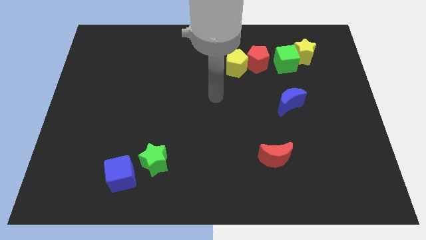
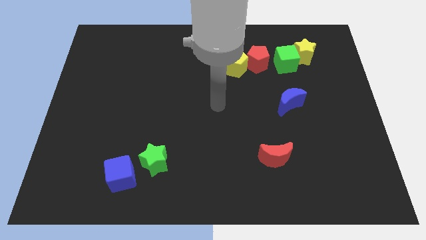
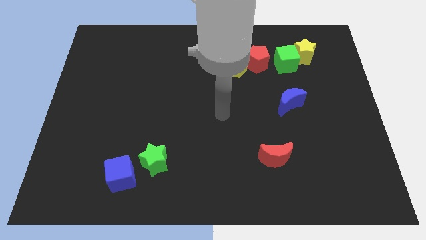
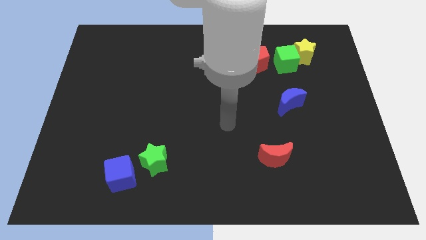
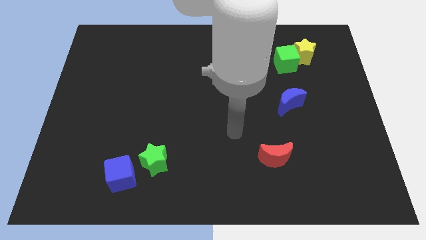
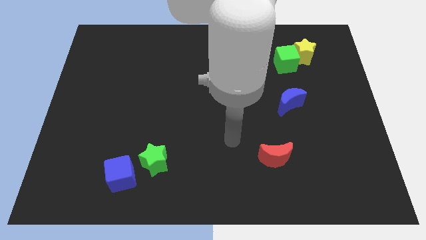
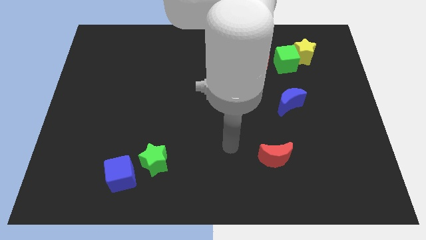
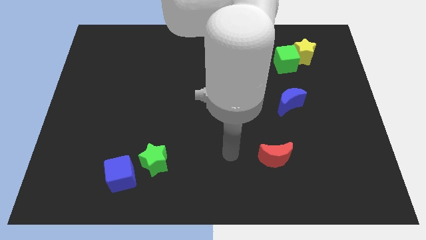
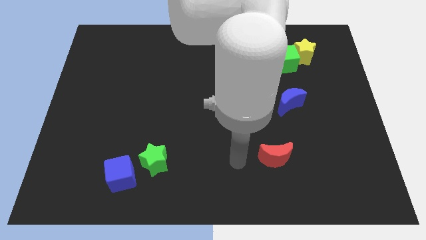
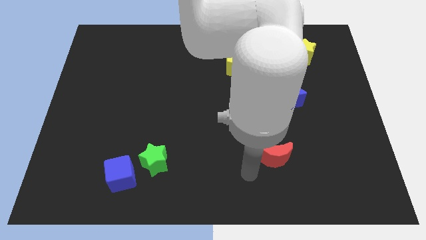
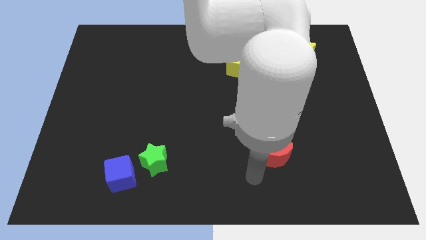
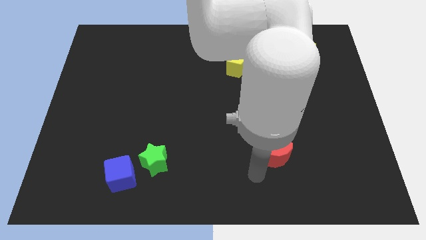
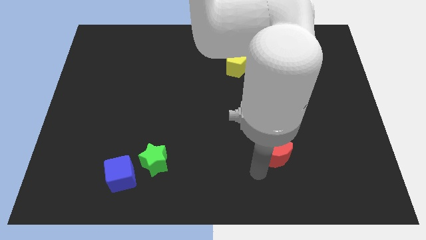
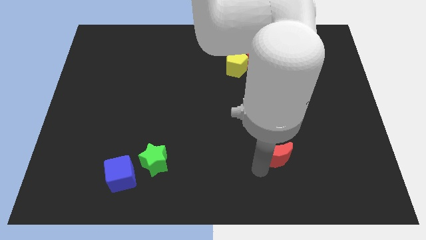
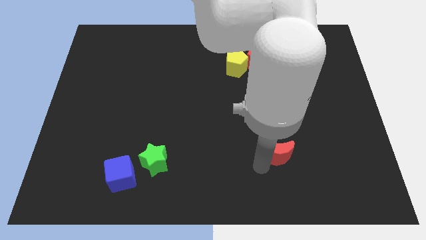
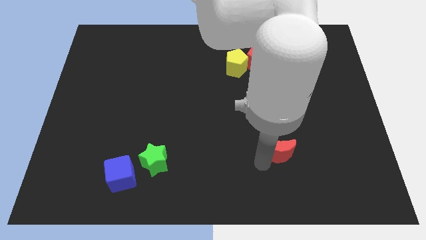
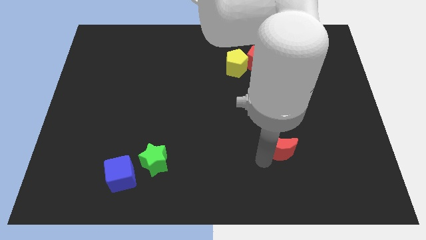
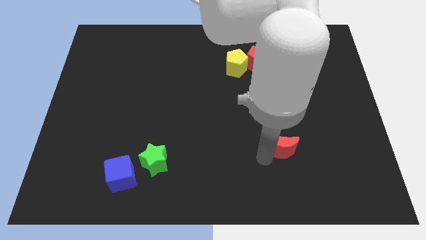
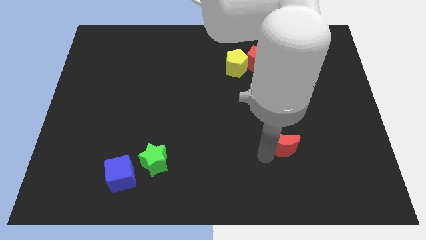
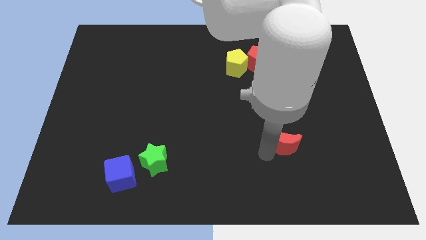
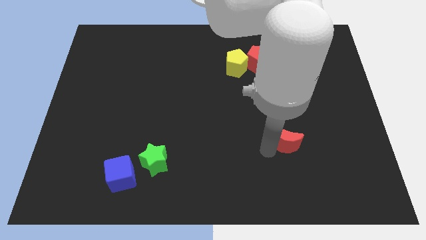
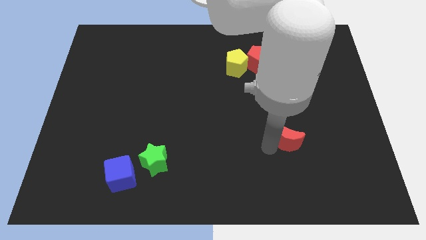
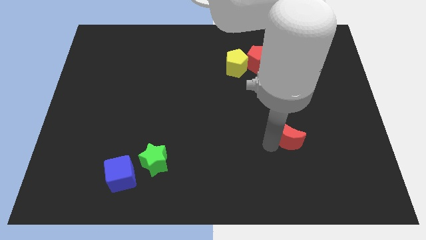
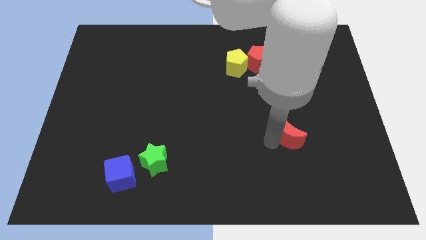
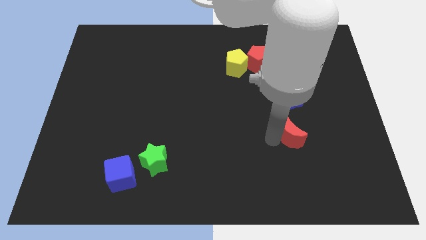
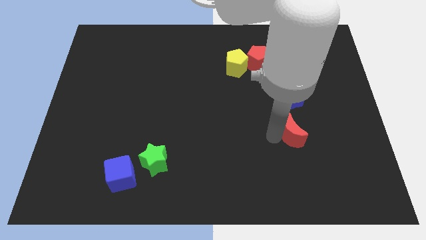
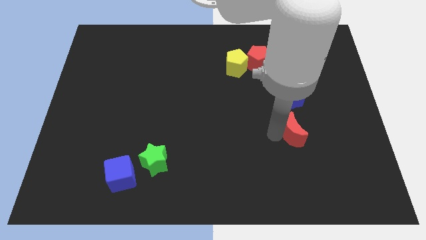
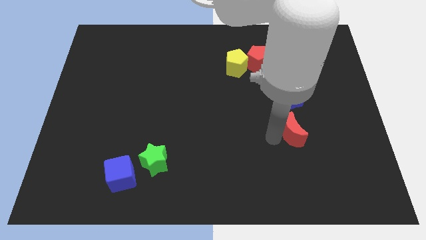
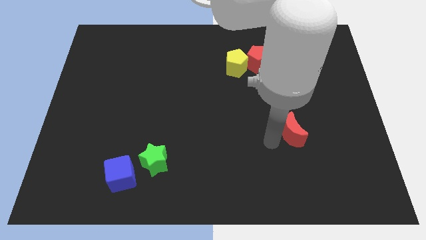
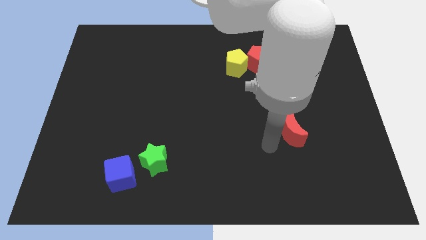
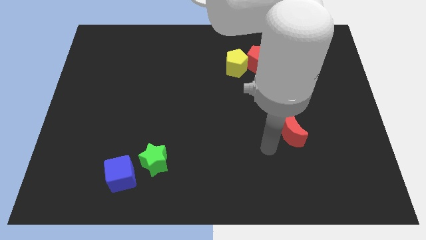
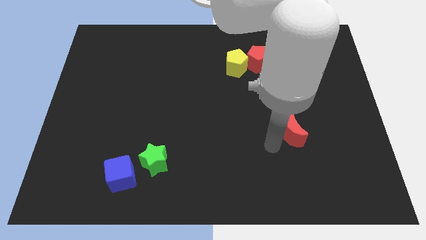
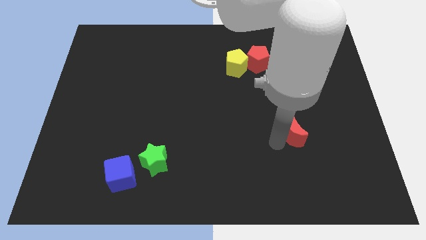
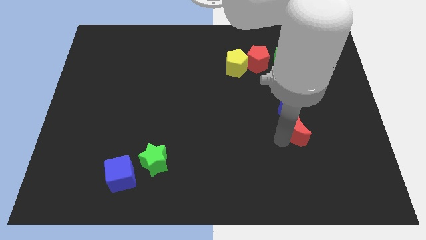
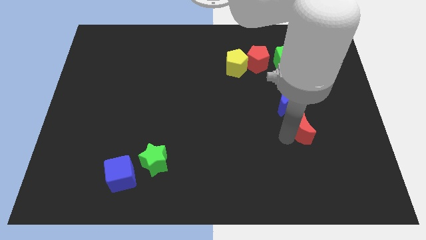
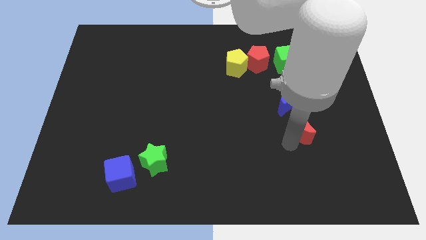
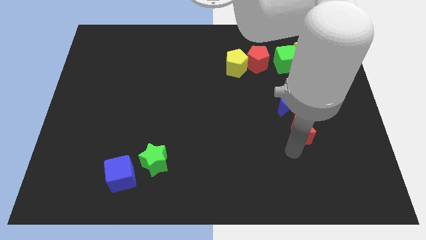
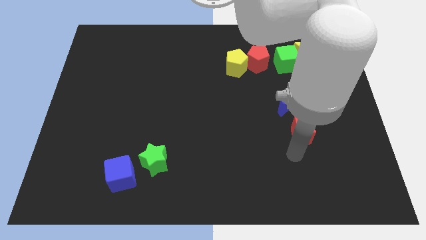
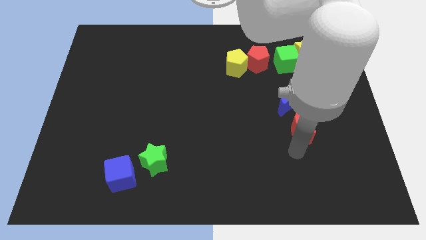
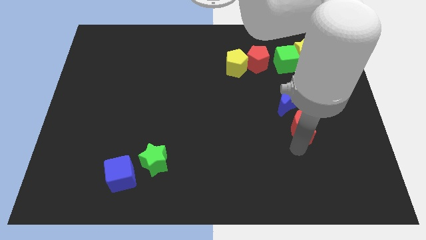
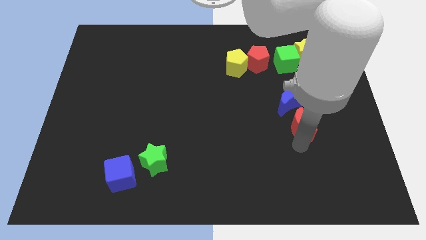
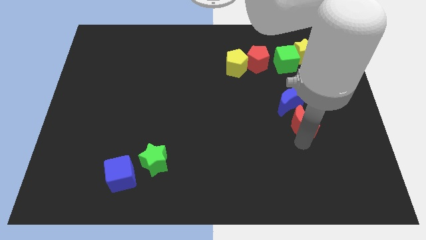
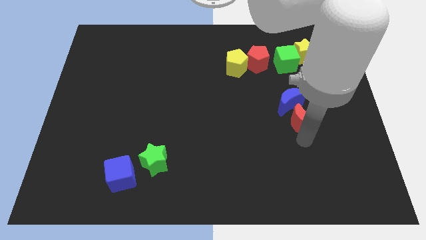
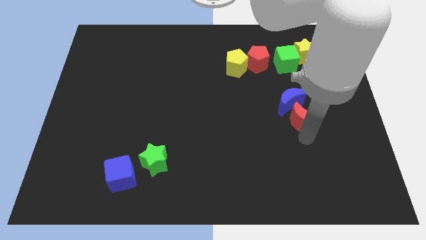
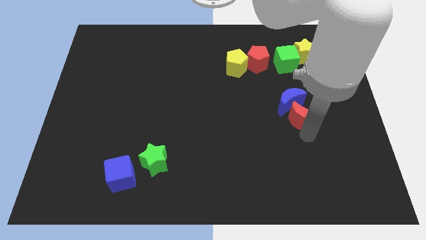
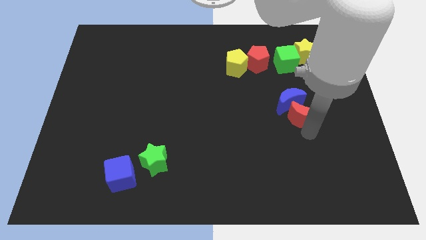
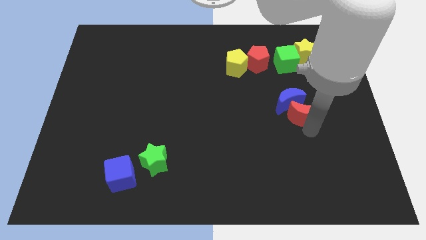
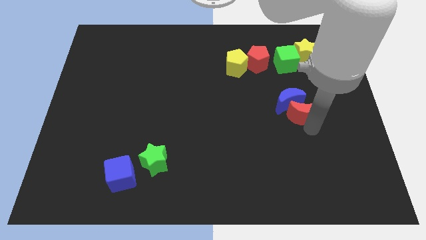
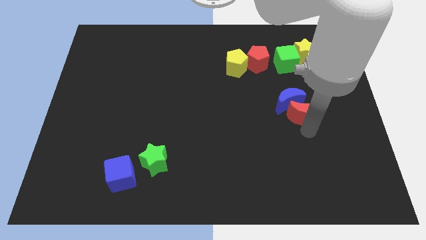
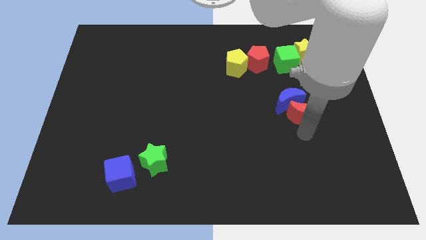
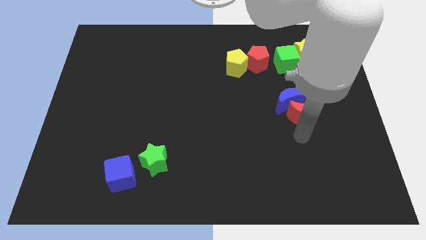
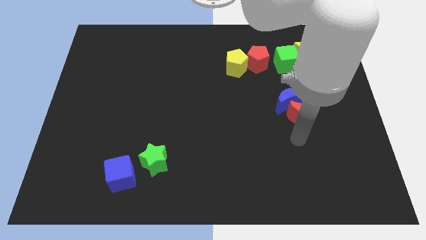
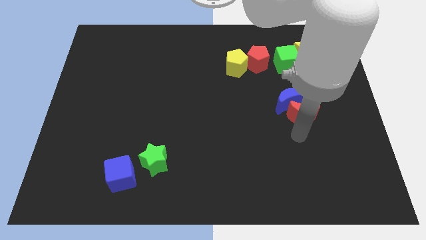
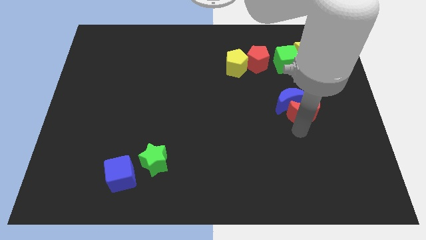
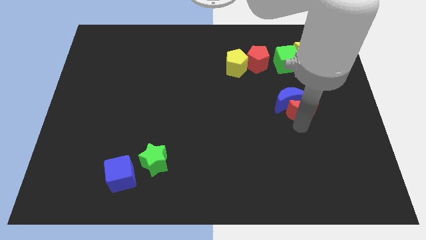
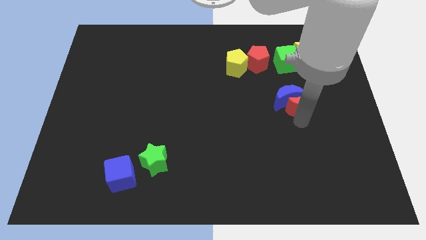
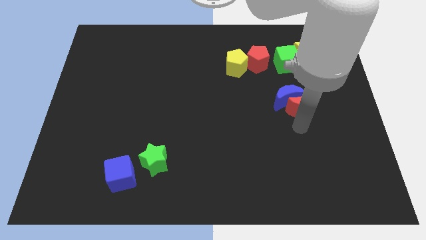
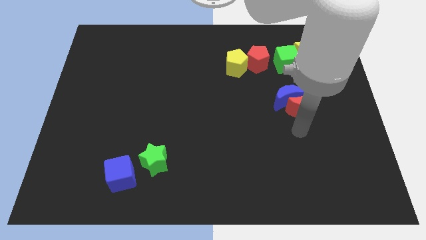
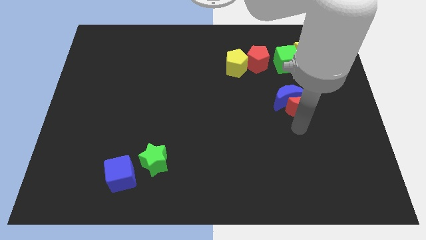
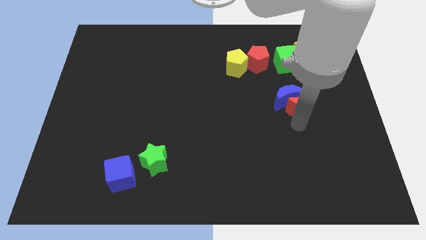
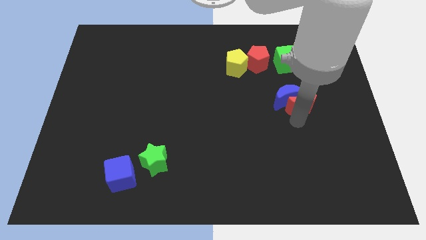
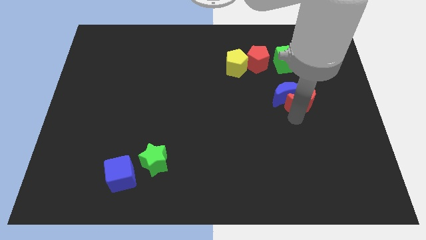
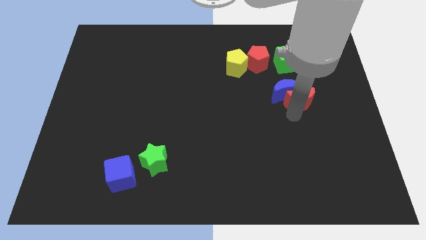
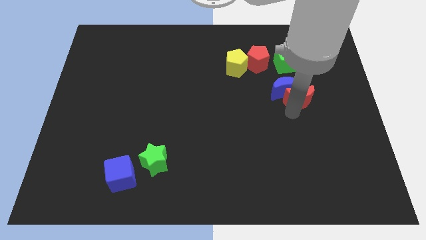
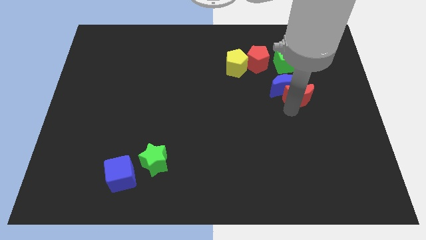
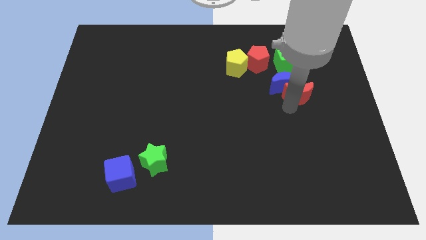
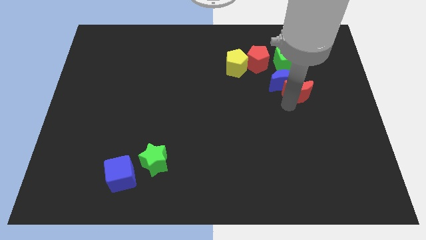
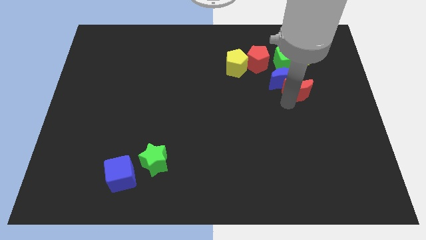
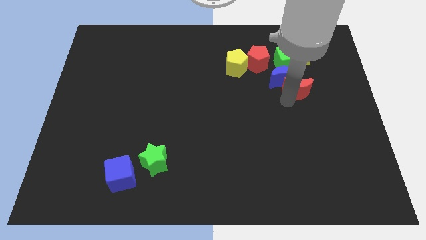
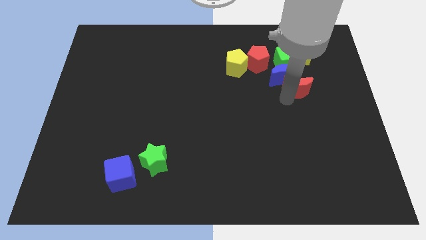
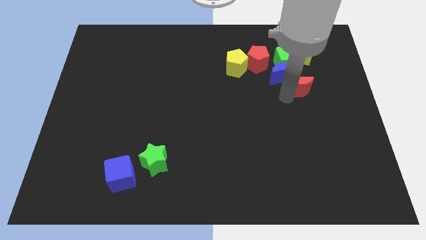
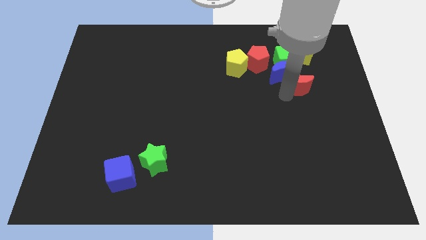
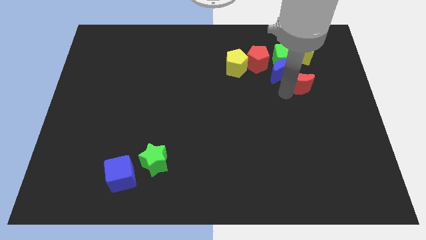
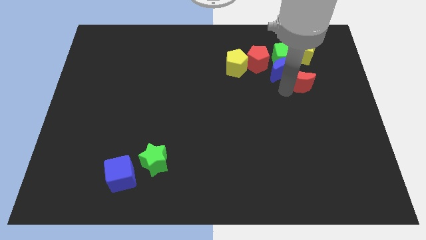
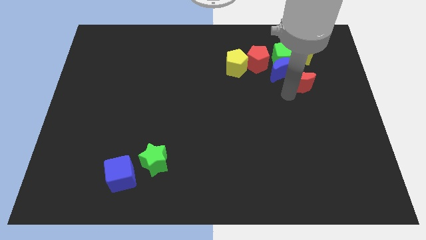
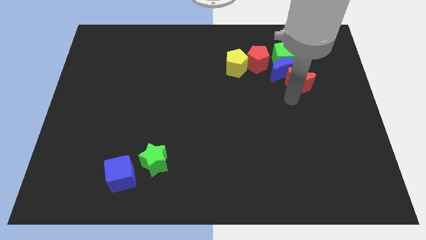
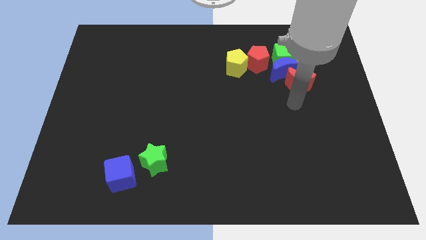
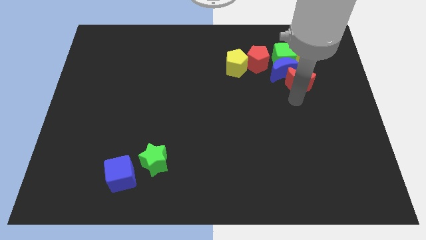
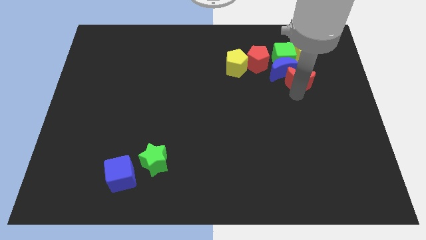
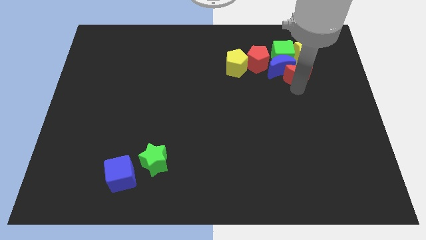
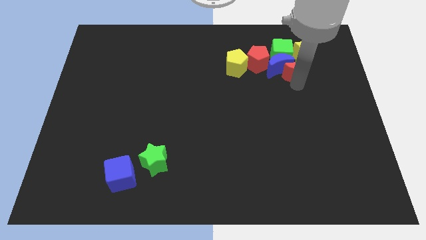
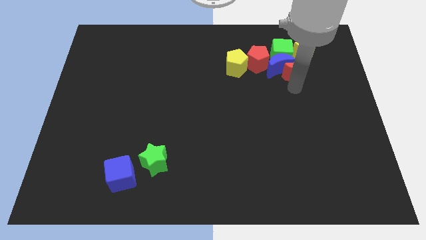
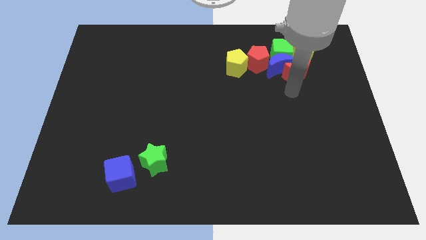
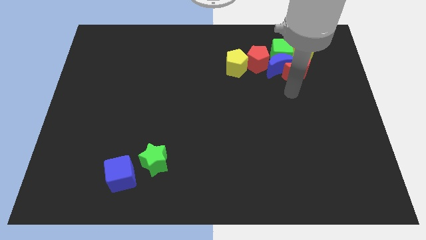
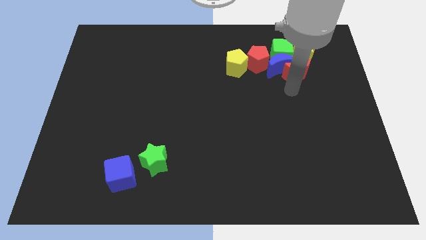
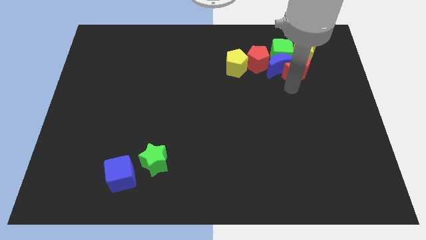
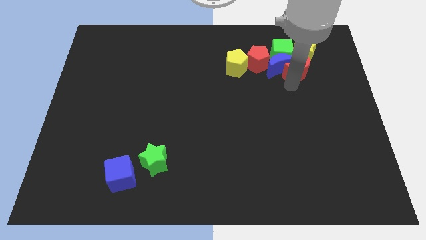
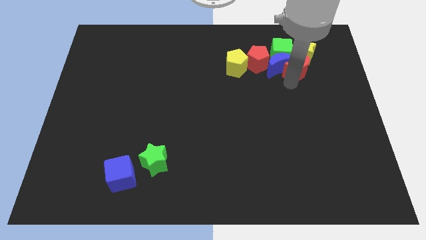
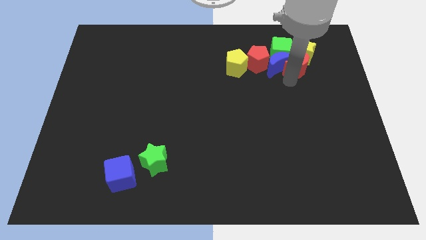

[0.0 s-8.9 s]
push the red moon close to the yellow star
